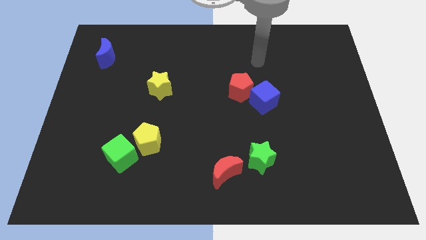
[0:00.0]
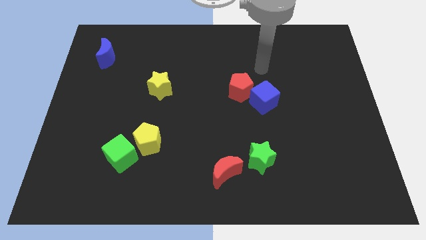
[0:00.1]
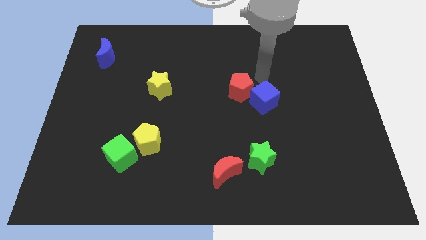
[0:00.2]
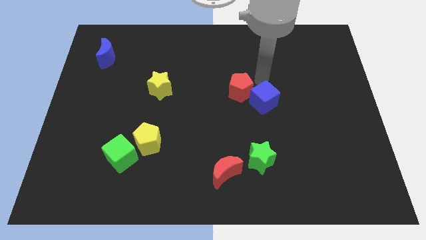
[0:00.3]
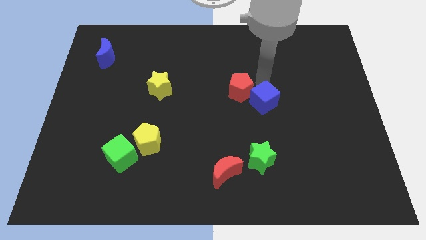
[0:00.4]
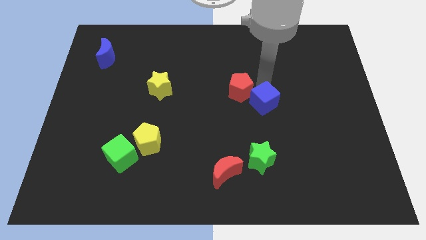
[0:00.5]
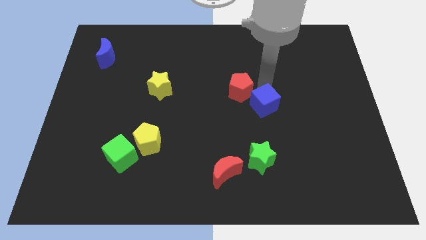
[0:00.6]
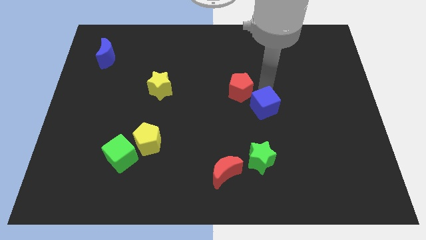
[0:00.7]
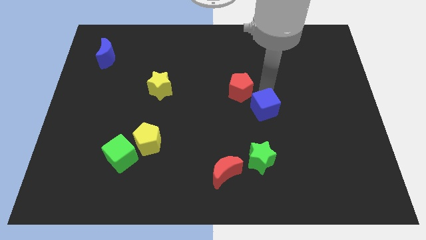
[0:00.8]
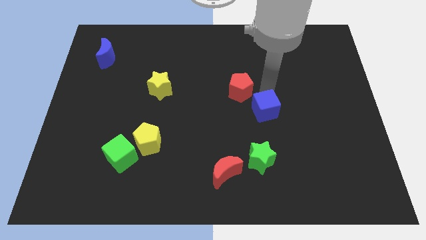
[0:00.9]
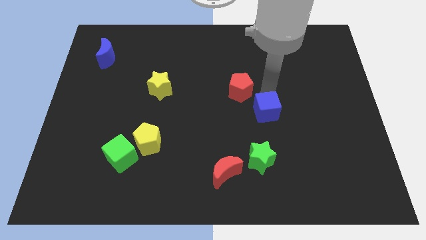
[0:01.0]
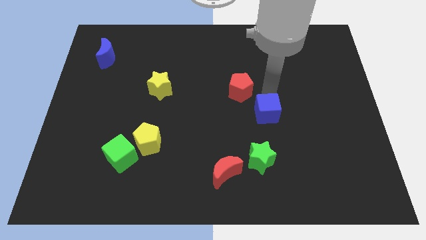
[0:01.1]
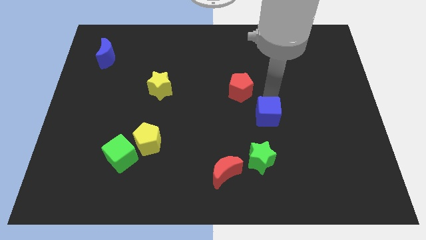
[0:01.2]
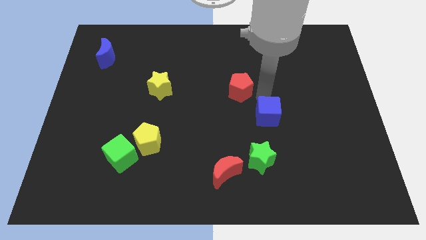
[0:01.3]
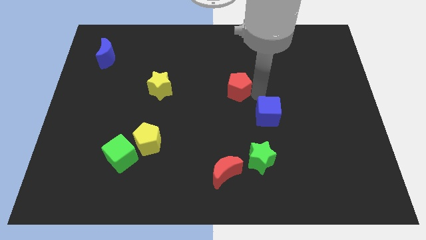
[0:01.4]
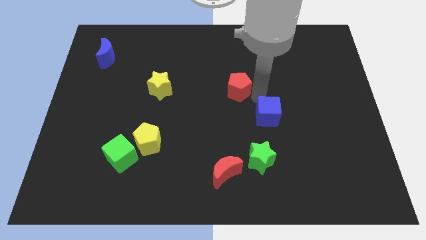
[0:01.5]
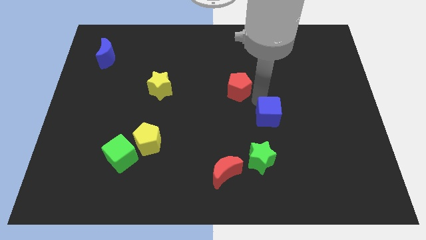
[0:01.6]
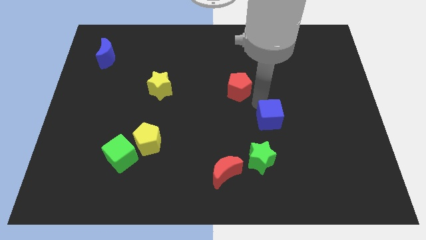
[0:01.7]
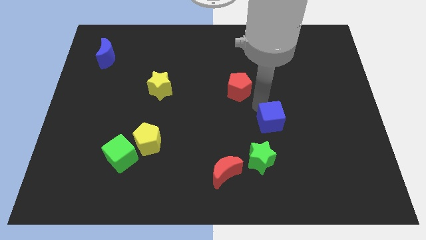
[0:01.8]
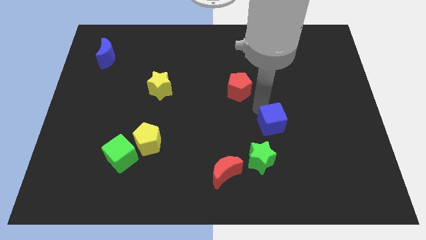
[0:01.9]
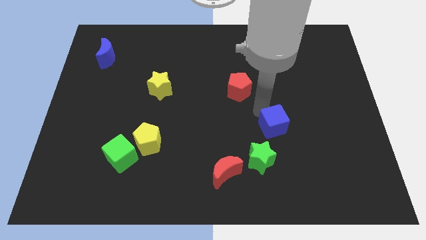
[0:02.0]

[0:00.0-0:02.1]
slightly move the blue cube downwards

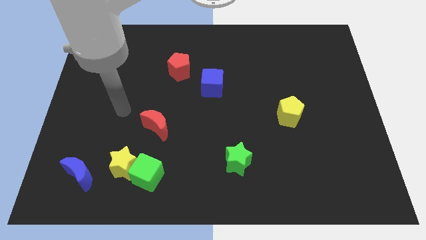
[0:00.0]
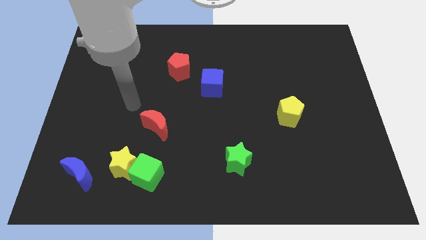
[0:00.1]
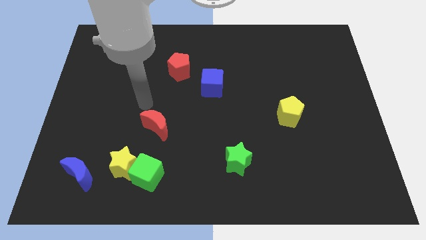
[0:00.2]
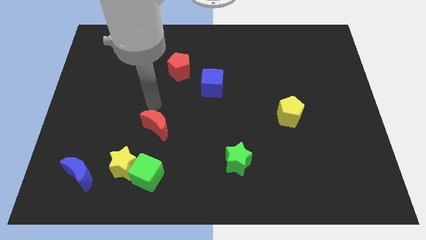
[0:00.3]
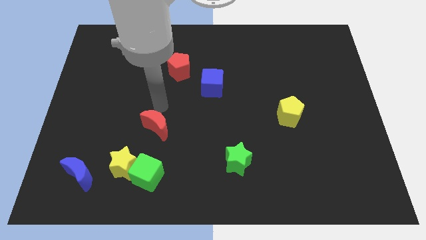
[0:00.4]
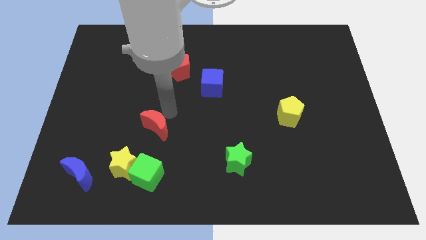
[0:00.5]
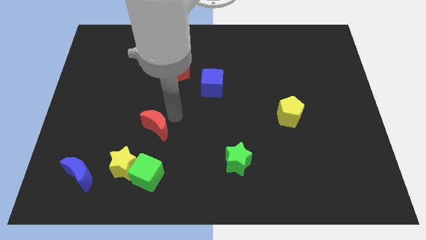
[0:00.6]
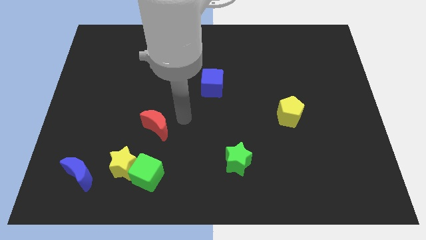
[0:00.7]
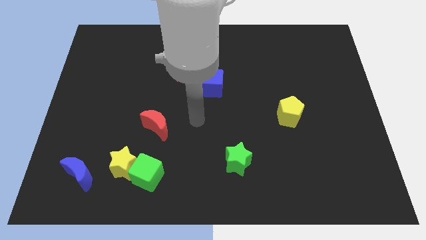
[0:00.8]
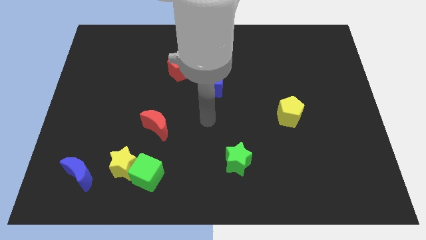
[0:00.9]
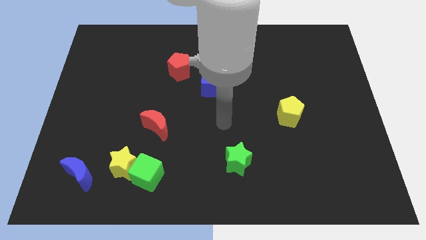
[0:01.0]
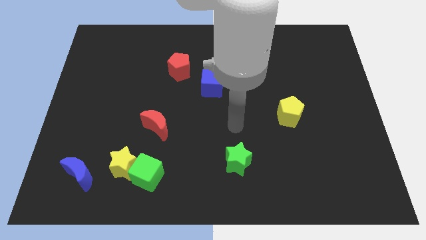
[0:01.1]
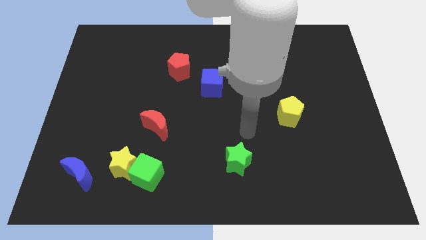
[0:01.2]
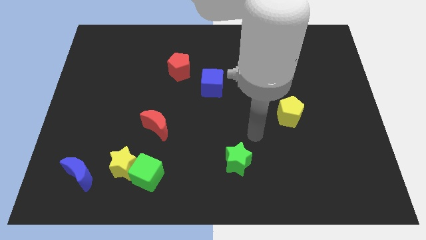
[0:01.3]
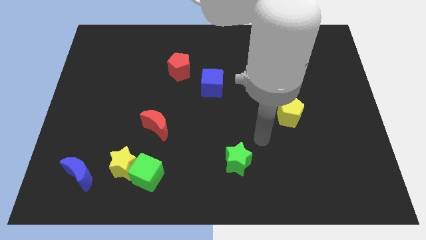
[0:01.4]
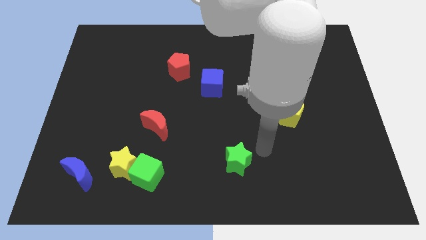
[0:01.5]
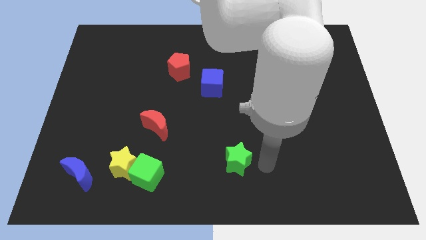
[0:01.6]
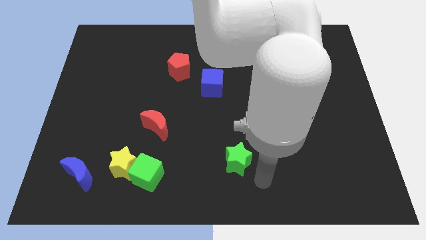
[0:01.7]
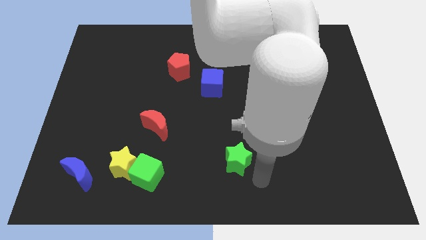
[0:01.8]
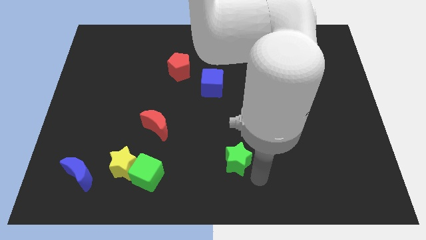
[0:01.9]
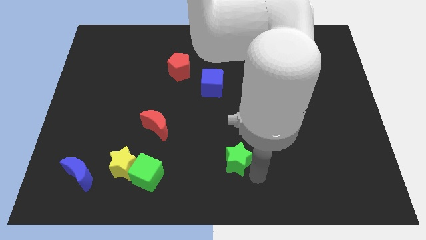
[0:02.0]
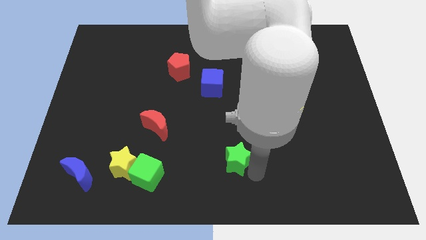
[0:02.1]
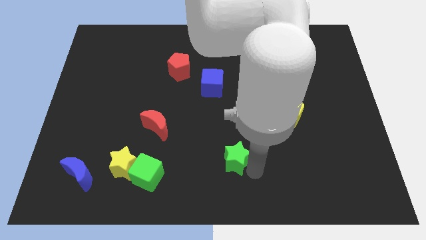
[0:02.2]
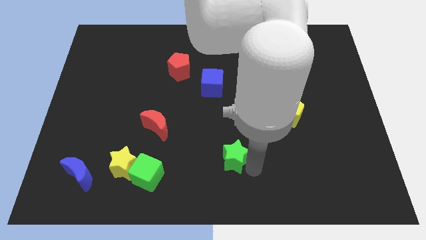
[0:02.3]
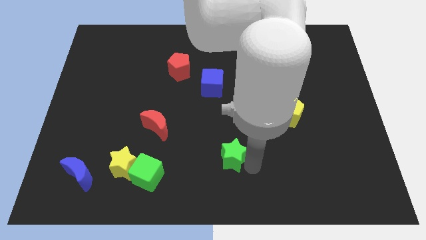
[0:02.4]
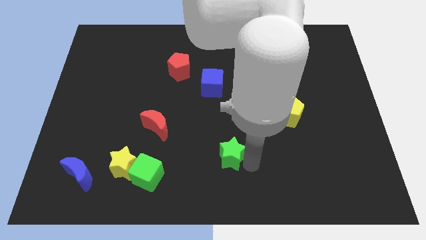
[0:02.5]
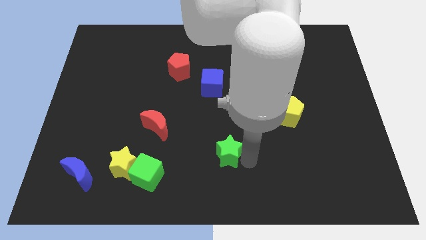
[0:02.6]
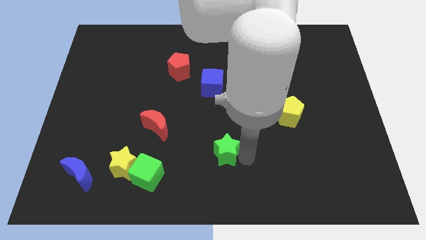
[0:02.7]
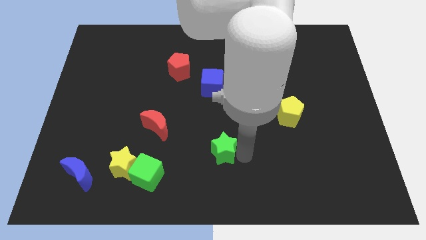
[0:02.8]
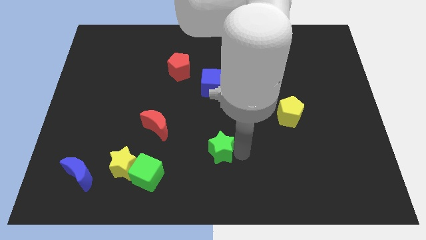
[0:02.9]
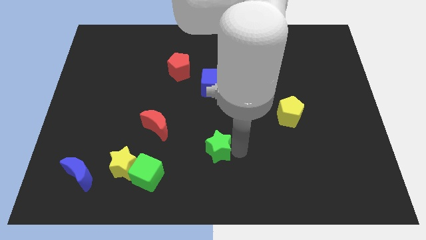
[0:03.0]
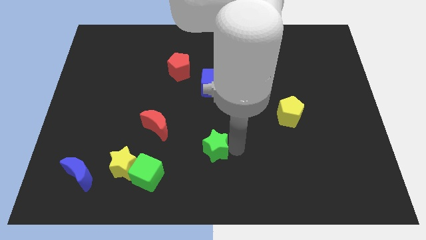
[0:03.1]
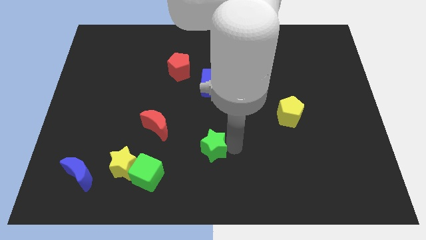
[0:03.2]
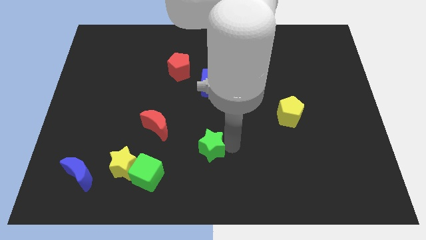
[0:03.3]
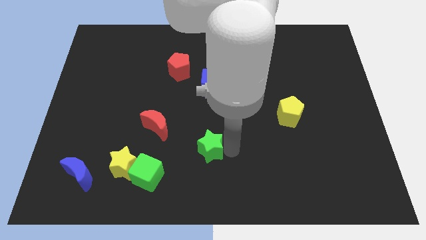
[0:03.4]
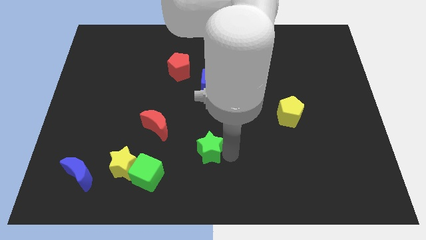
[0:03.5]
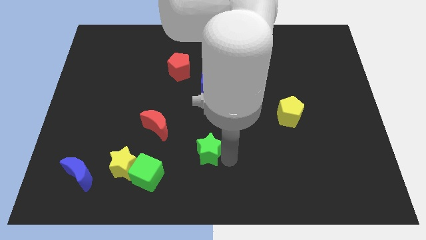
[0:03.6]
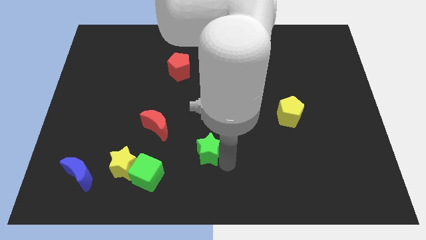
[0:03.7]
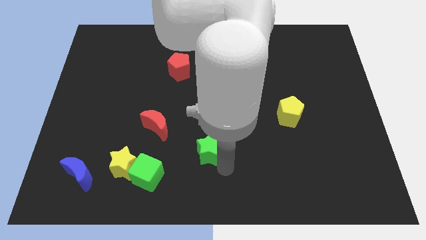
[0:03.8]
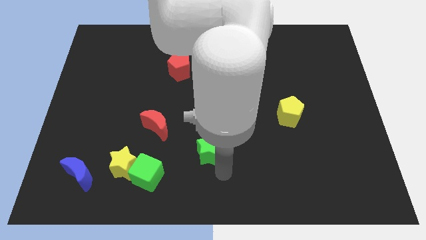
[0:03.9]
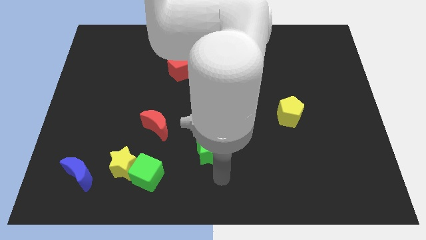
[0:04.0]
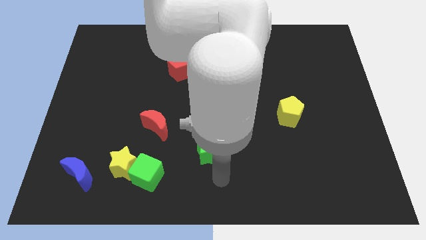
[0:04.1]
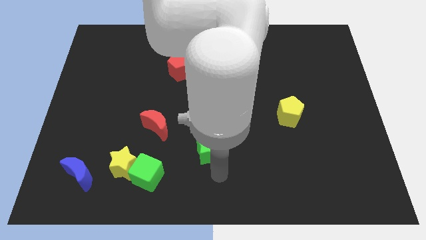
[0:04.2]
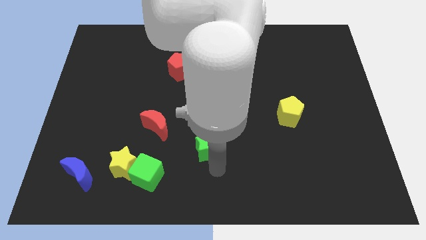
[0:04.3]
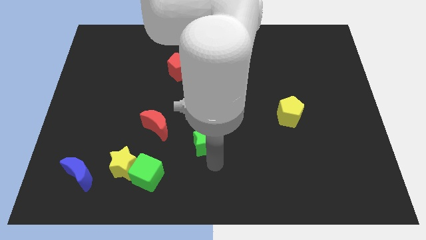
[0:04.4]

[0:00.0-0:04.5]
slightly move the green star diagonally upwards and to the left

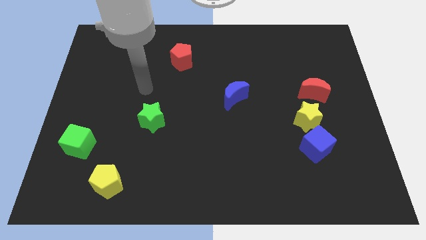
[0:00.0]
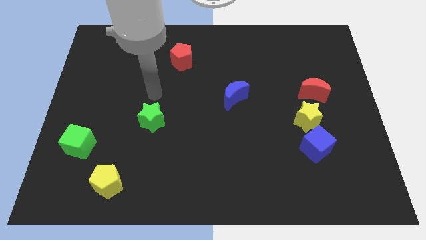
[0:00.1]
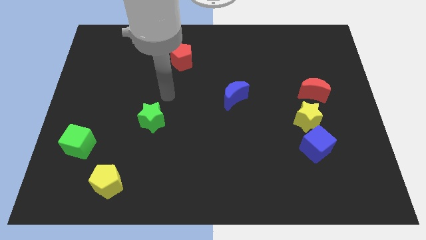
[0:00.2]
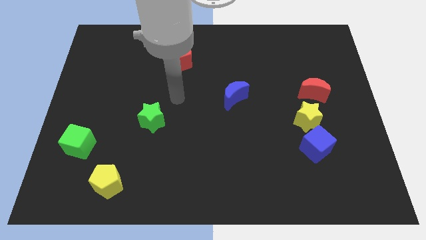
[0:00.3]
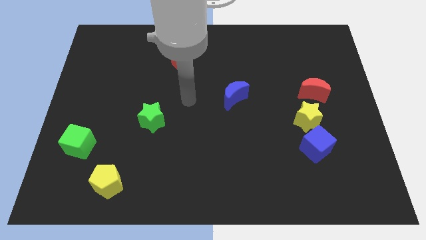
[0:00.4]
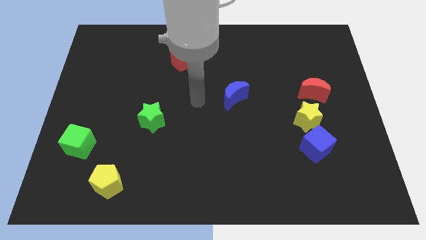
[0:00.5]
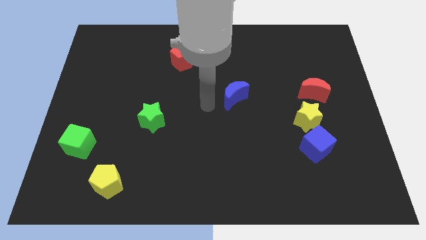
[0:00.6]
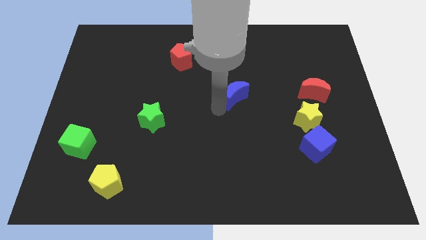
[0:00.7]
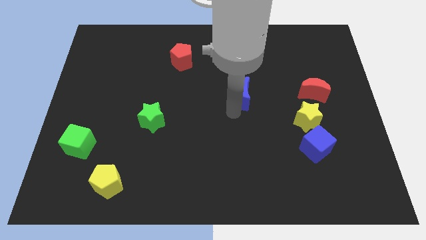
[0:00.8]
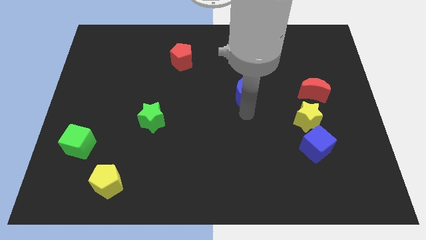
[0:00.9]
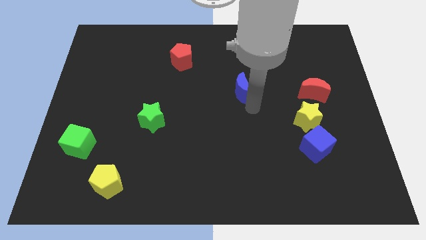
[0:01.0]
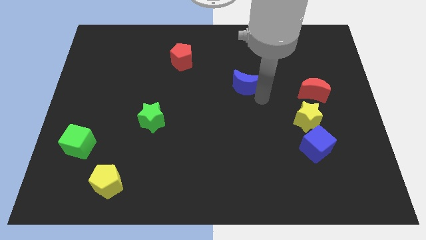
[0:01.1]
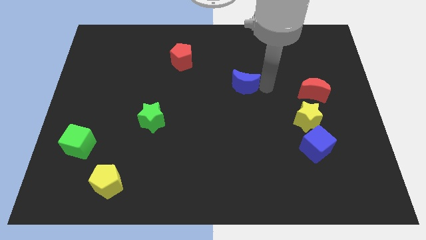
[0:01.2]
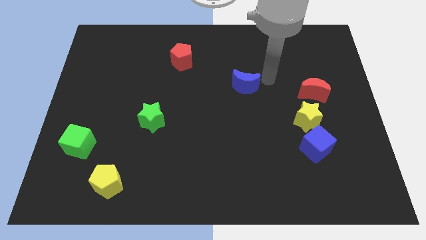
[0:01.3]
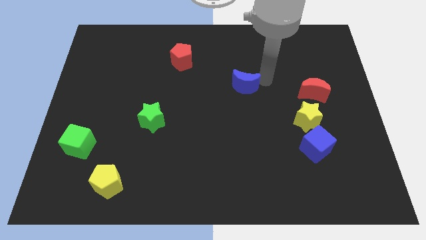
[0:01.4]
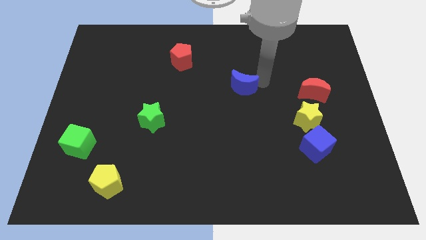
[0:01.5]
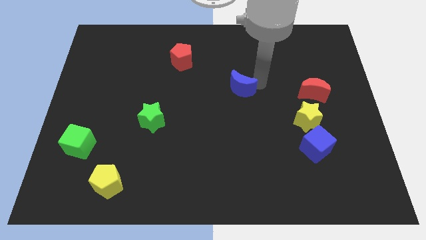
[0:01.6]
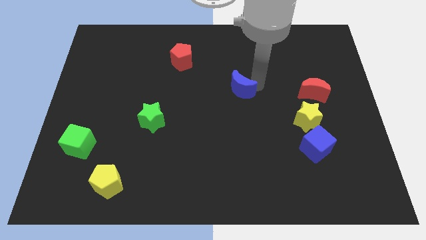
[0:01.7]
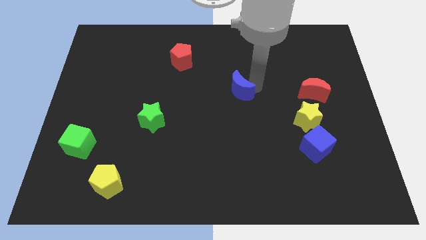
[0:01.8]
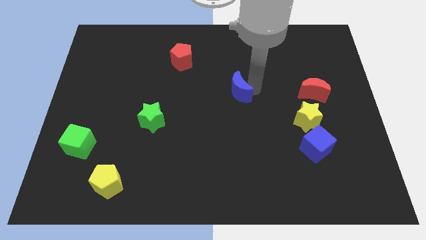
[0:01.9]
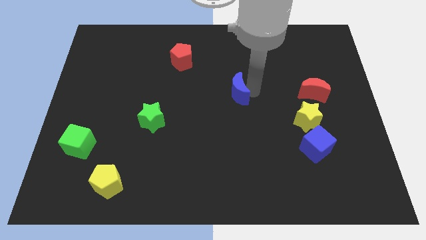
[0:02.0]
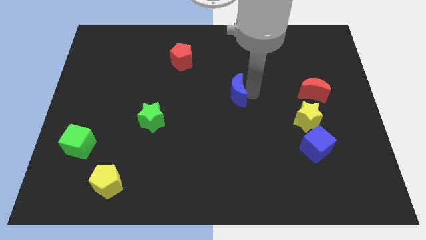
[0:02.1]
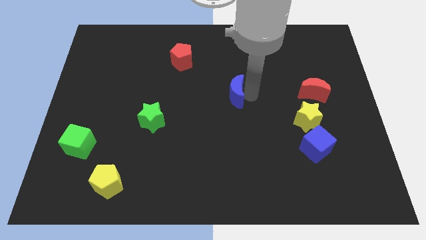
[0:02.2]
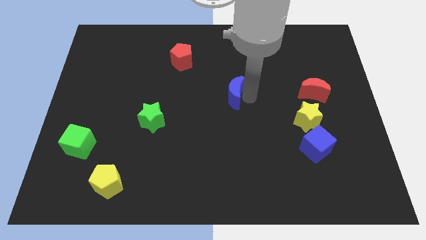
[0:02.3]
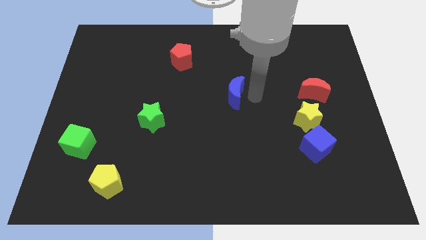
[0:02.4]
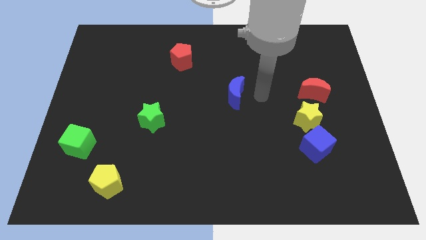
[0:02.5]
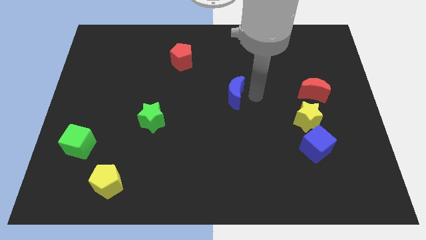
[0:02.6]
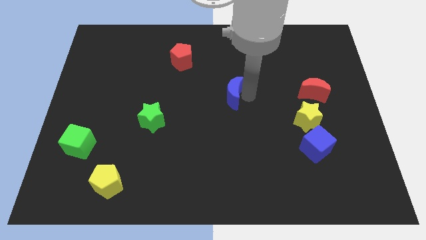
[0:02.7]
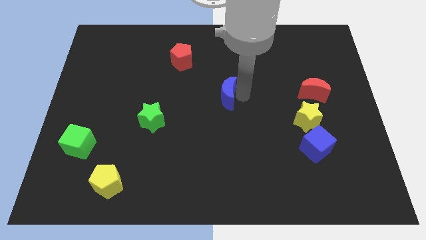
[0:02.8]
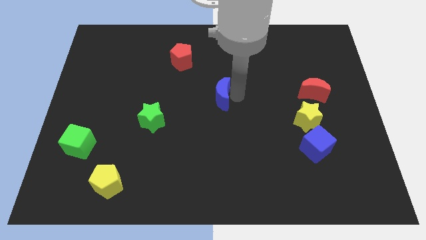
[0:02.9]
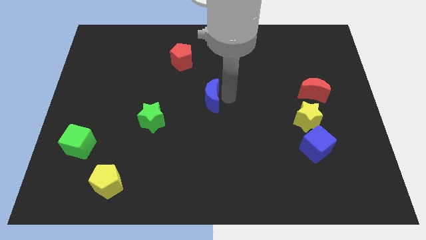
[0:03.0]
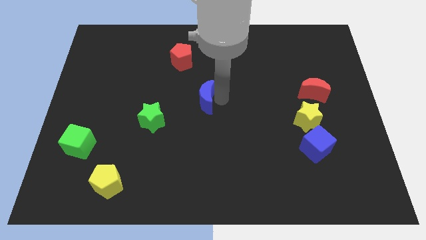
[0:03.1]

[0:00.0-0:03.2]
slide the blue moon left a little
